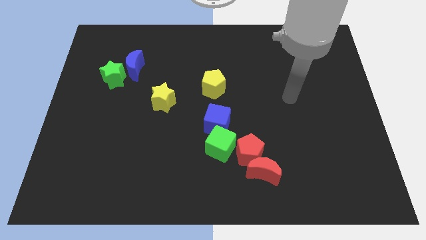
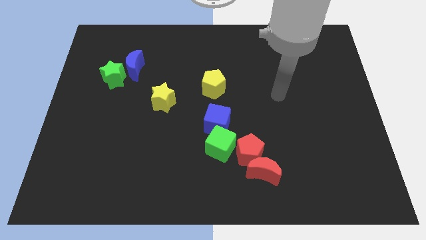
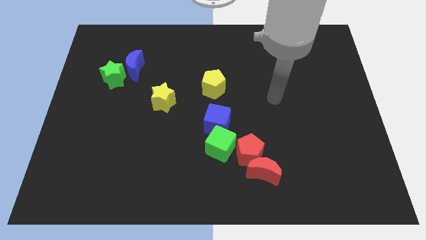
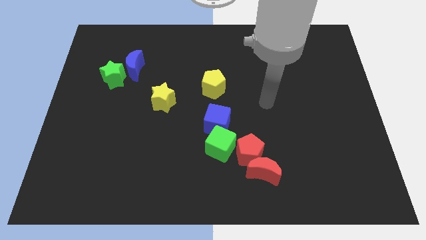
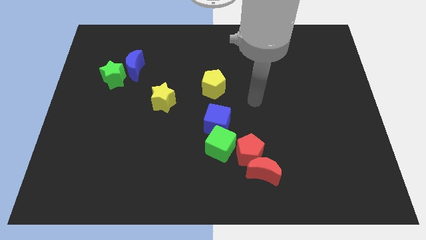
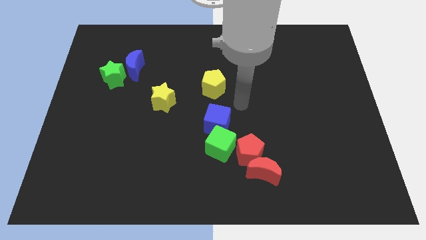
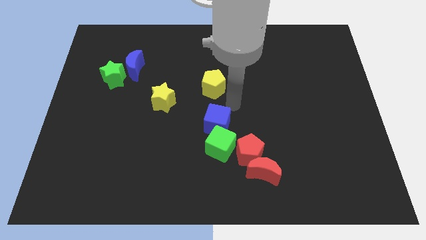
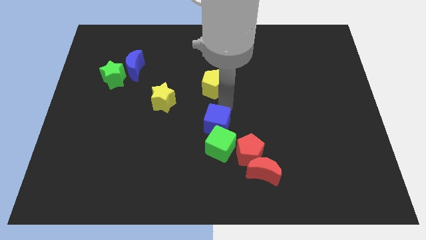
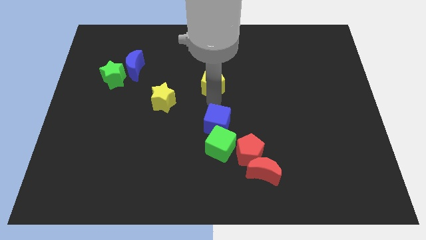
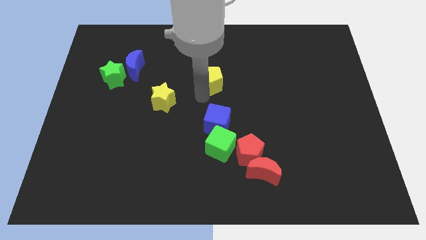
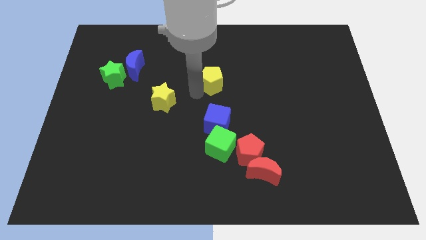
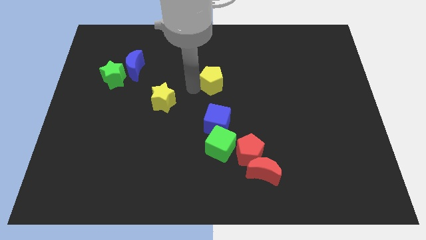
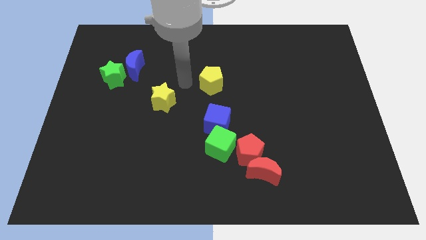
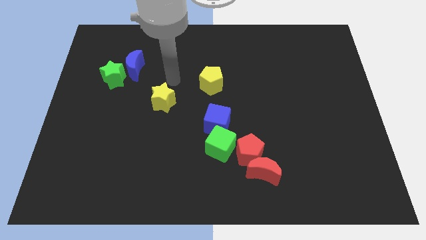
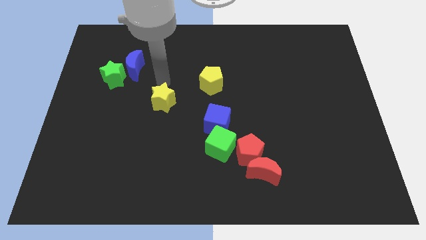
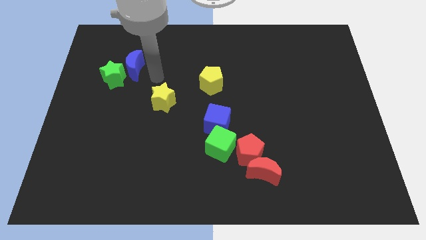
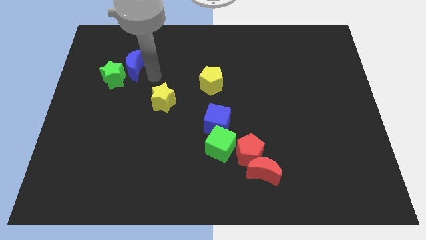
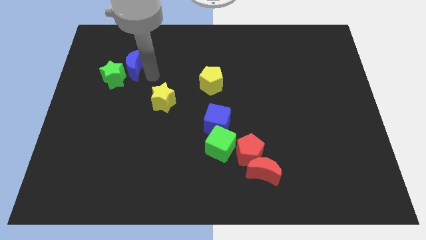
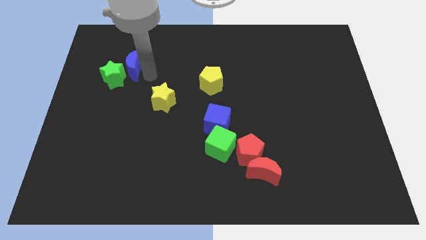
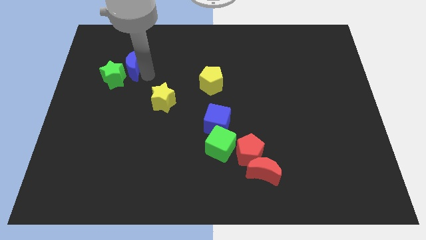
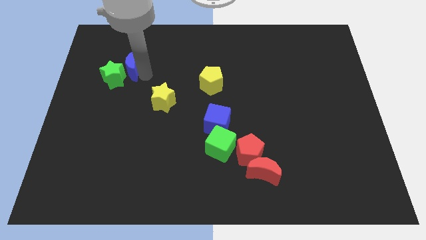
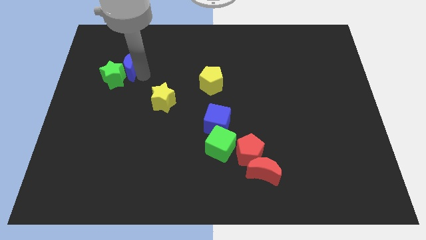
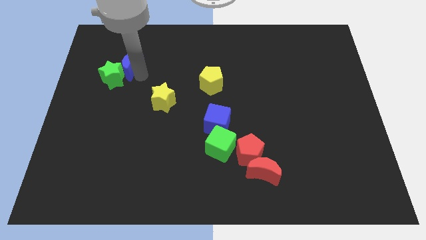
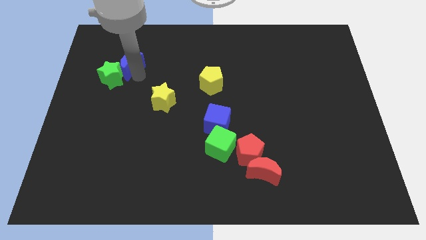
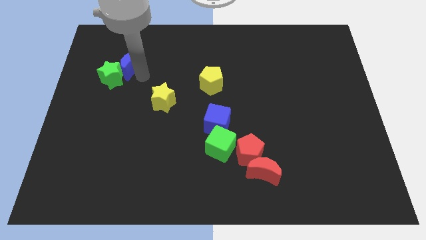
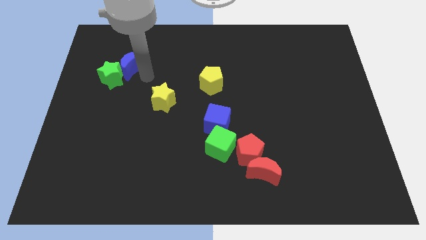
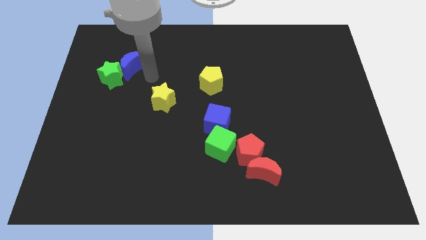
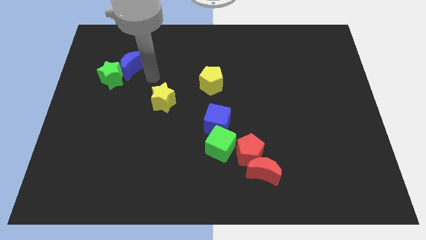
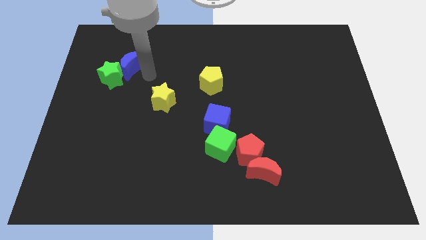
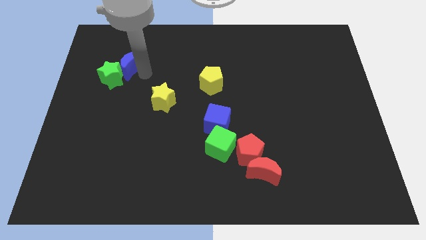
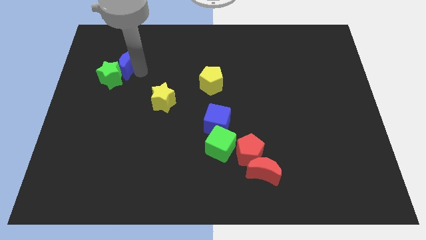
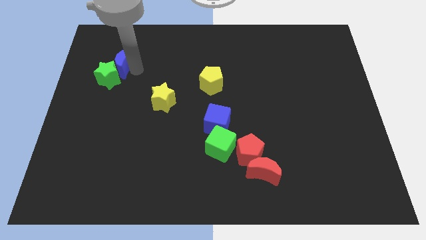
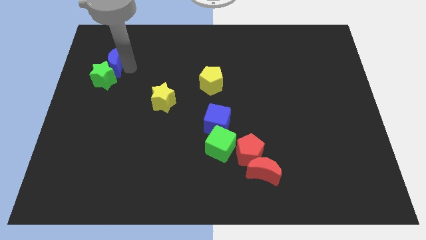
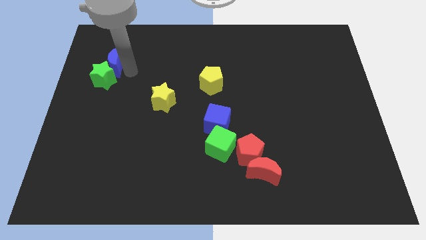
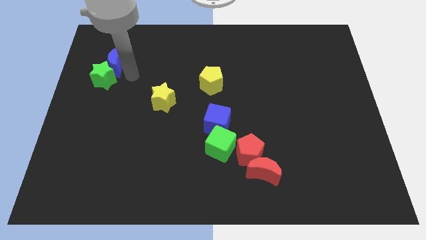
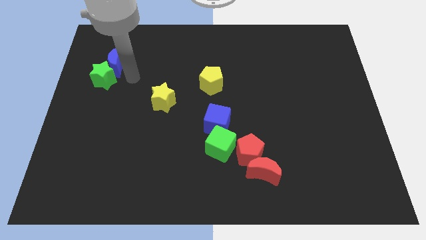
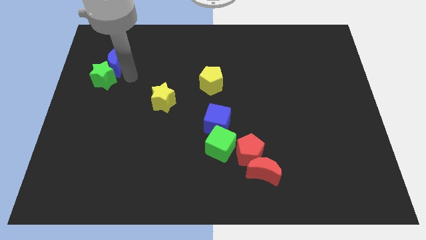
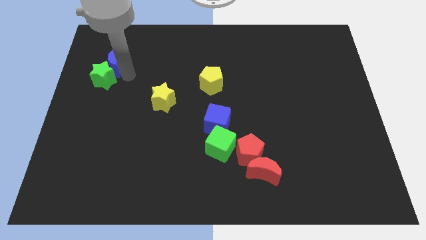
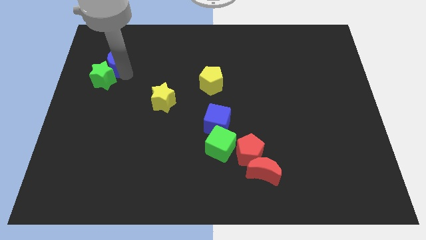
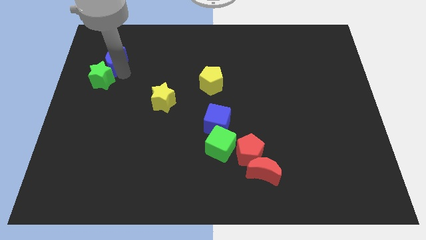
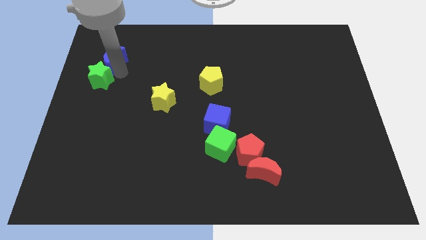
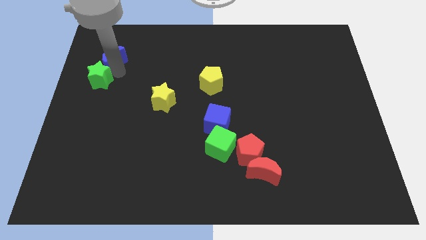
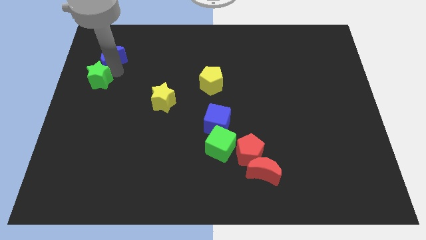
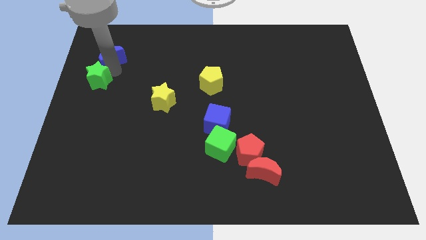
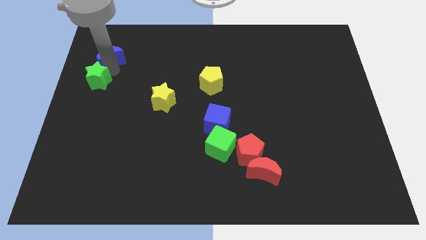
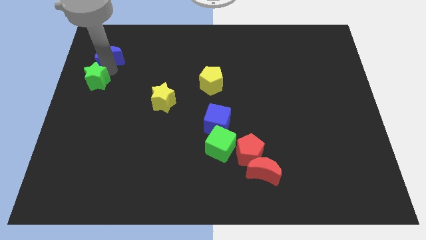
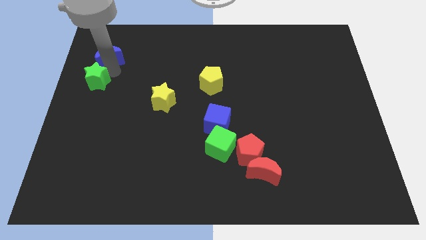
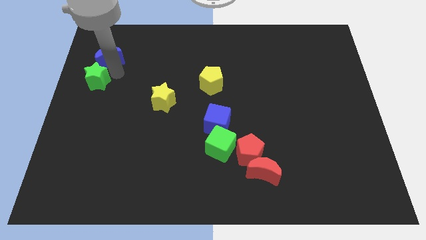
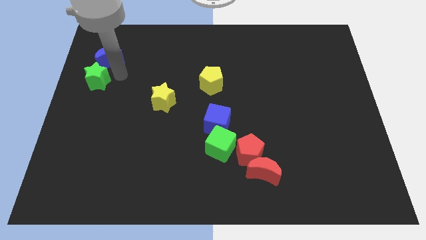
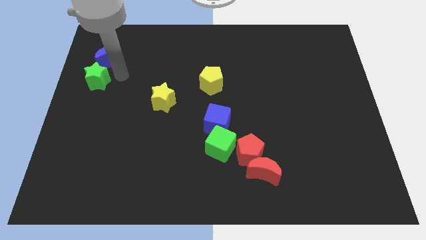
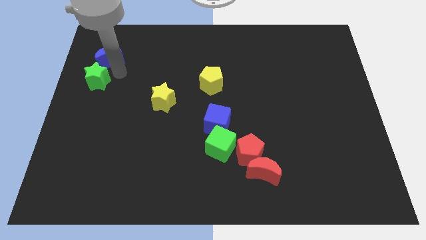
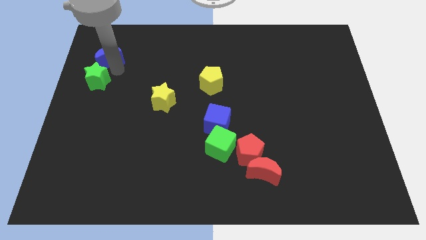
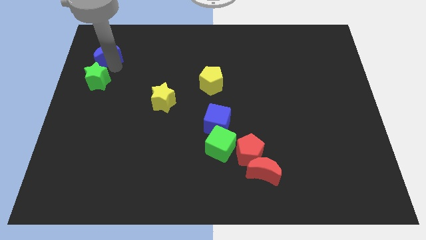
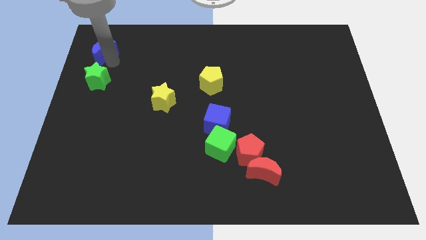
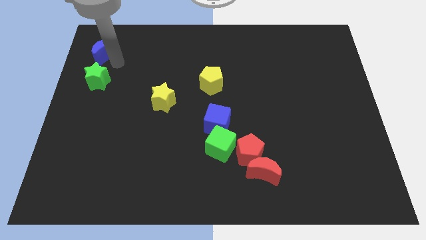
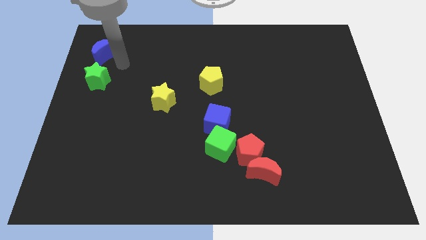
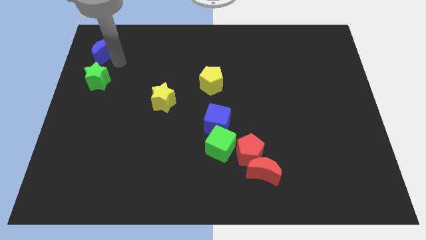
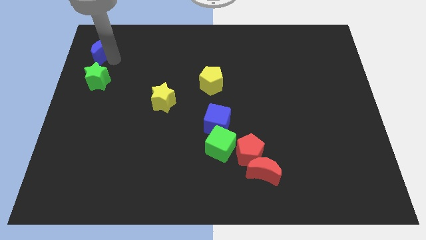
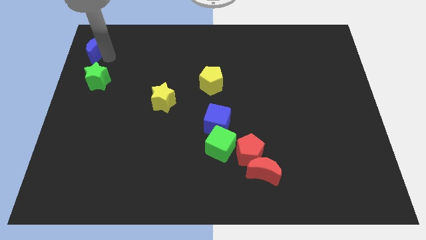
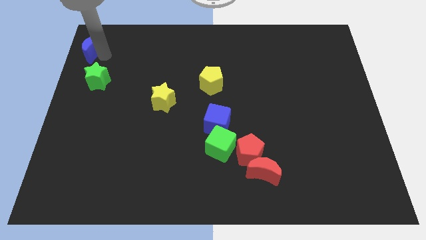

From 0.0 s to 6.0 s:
push the blue moon to the top left corner

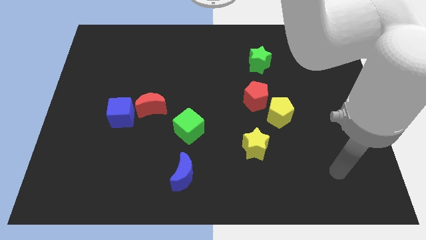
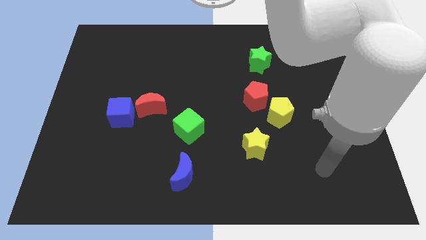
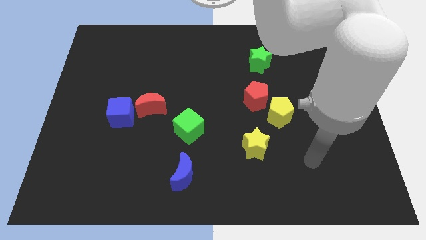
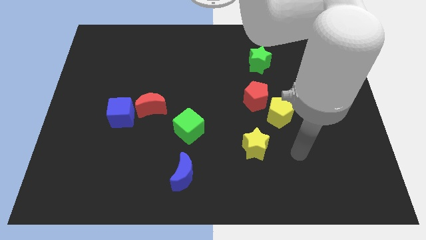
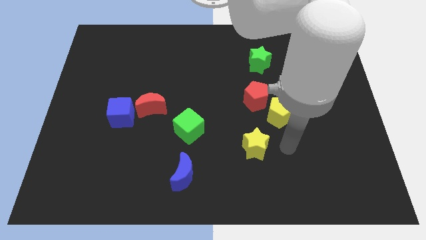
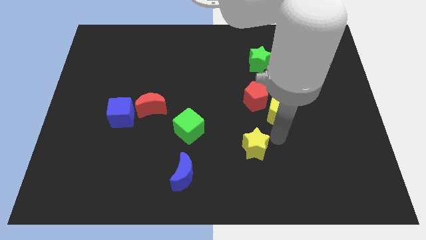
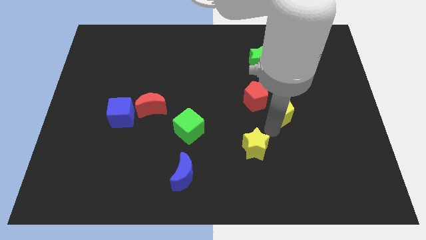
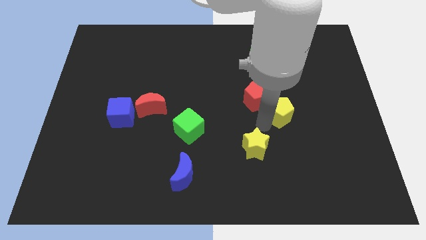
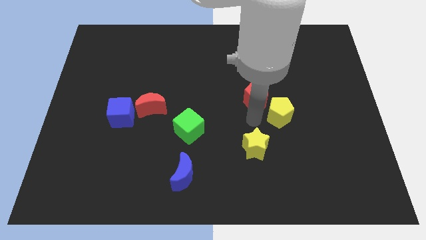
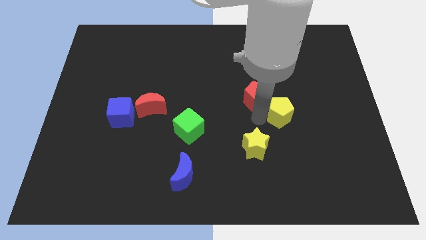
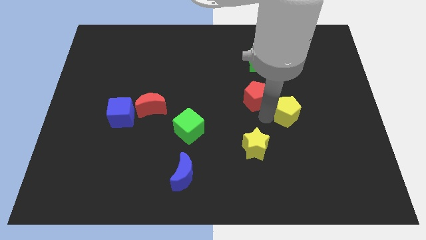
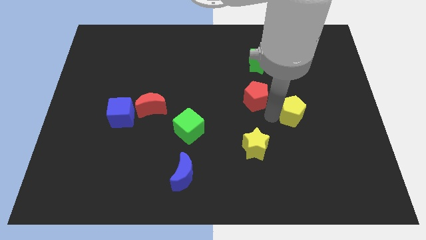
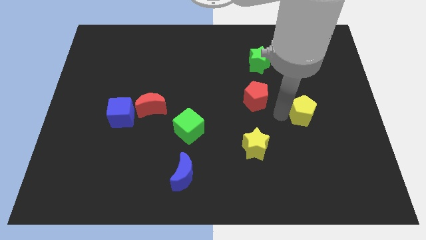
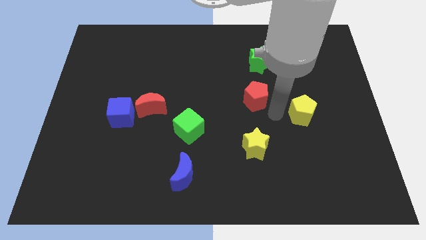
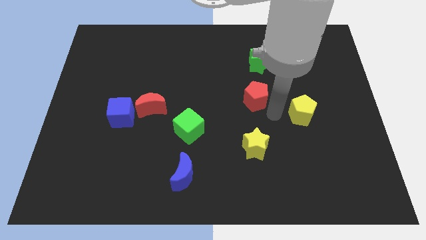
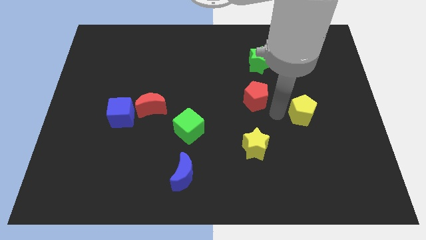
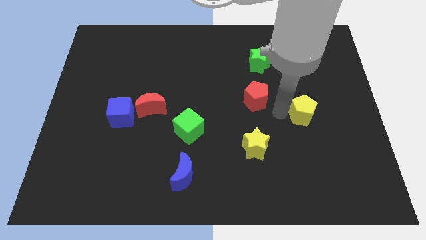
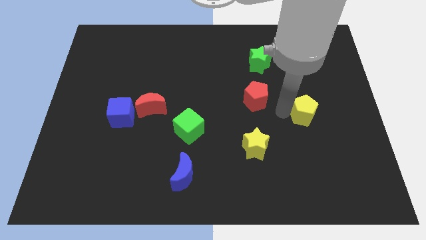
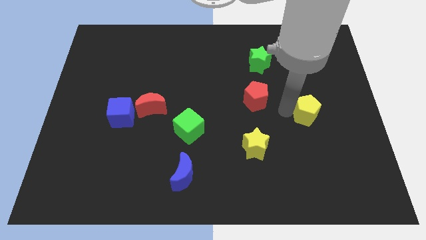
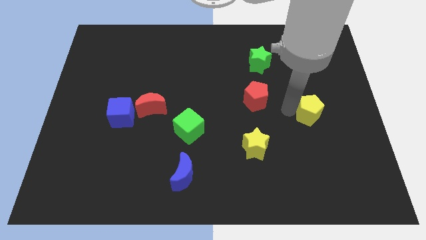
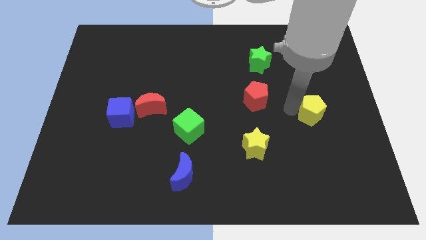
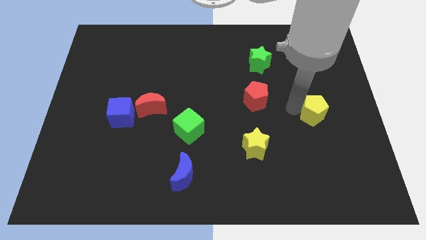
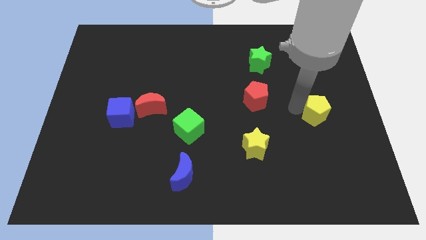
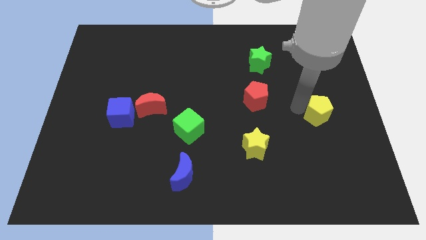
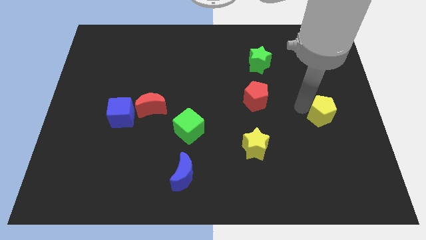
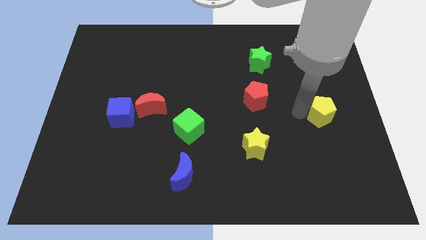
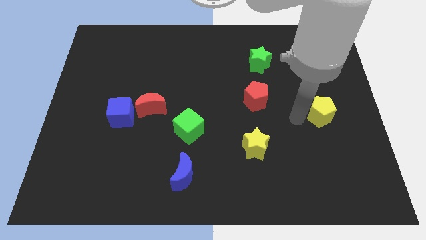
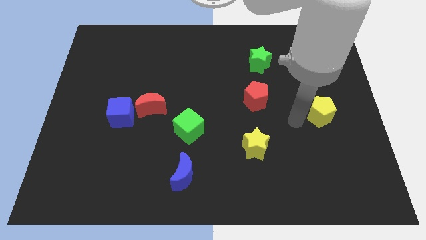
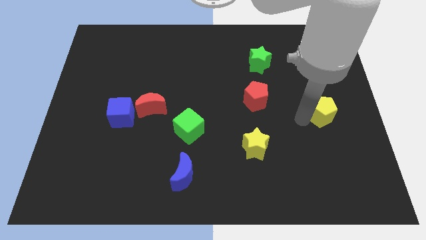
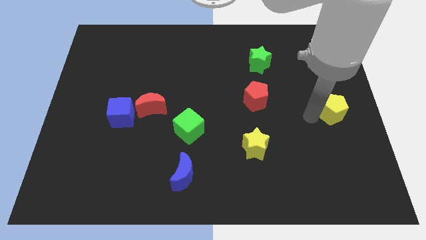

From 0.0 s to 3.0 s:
slide the yellow pentagon to the right side of the board
